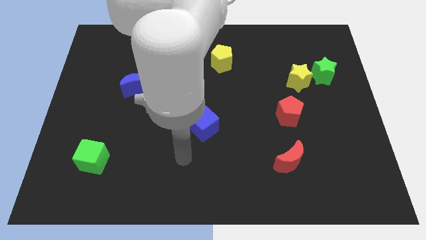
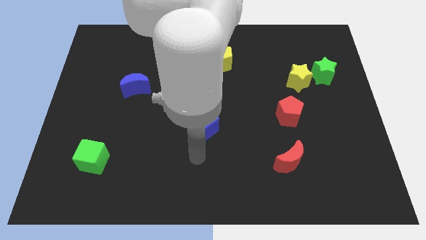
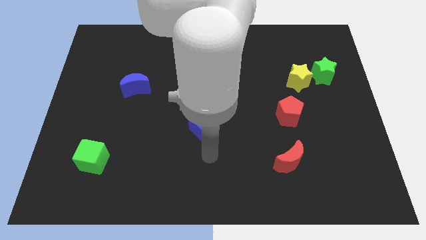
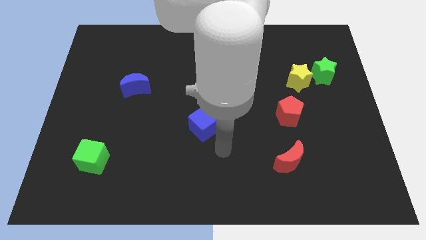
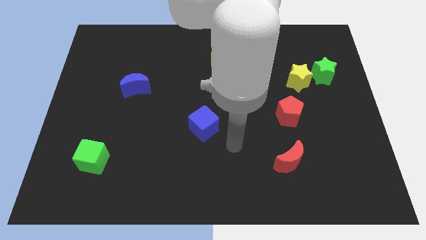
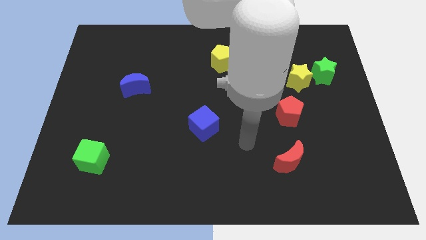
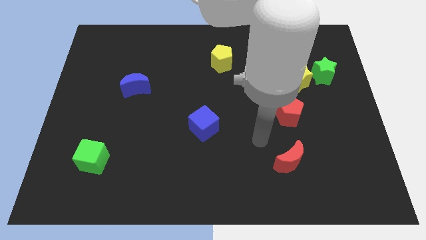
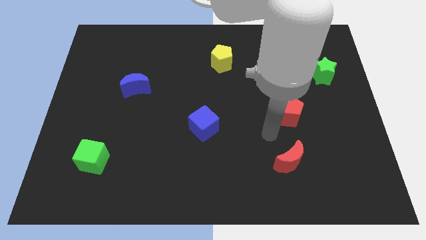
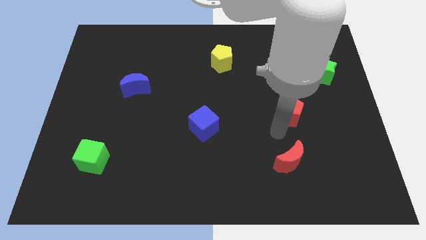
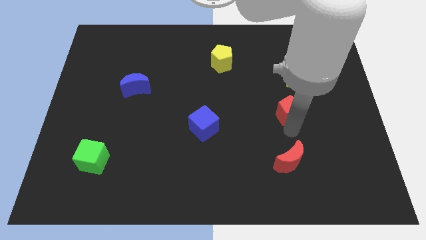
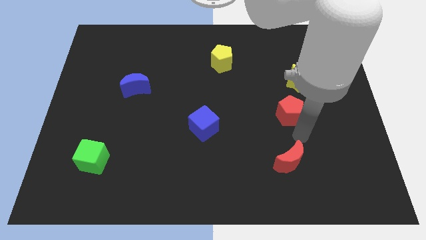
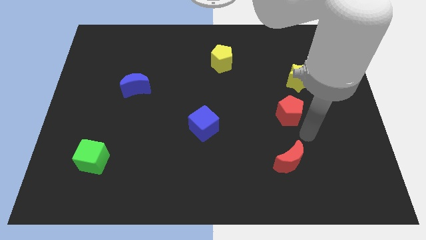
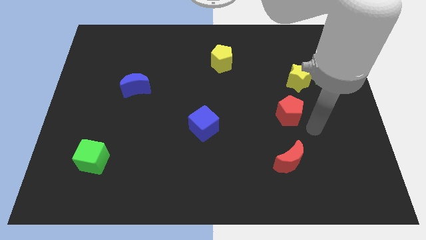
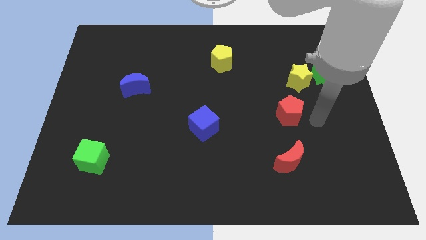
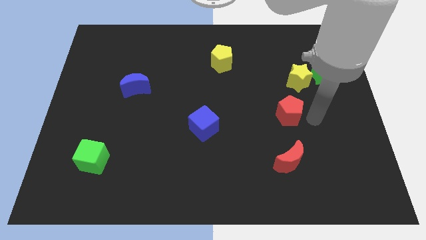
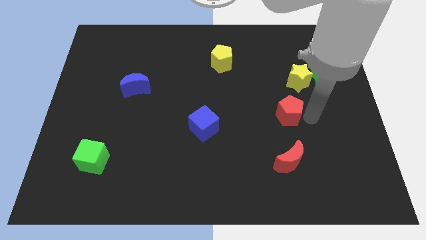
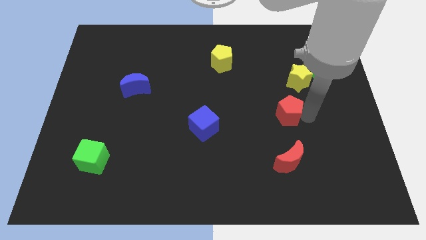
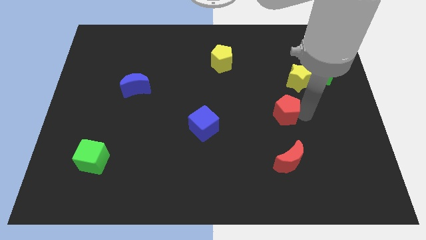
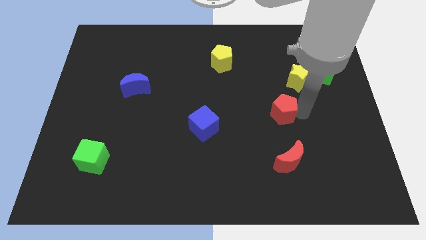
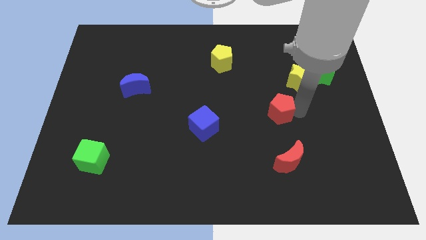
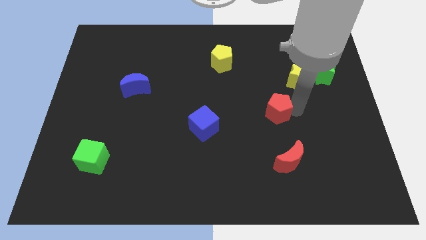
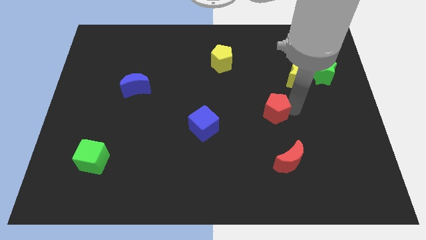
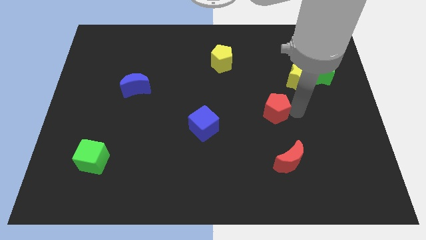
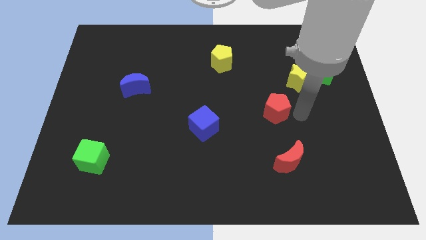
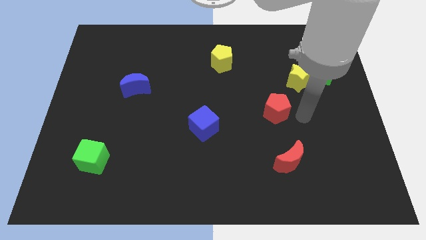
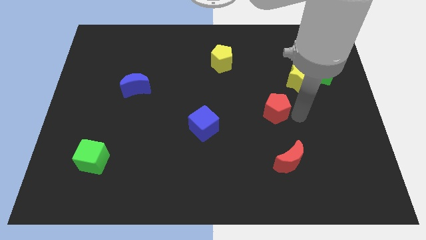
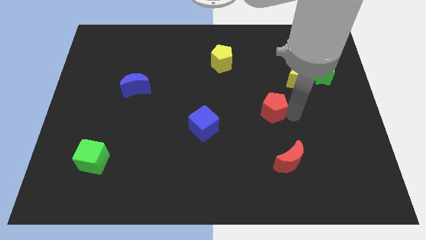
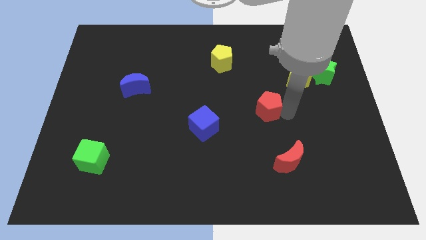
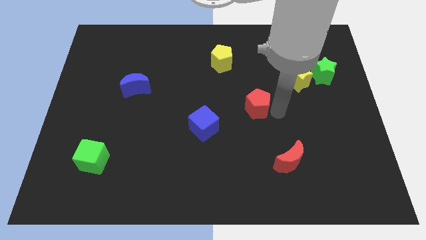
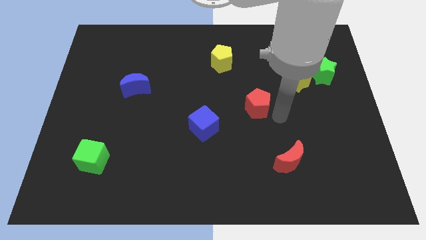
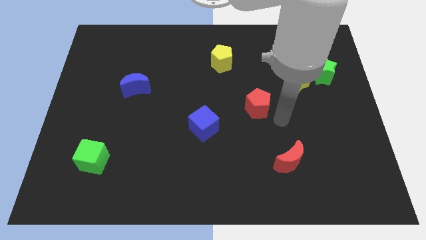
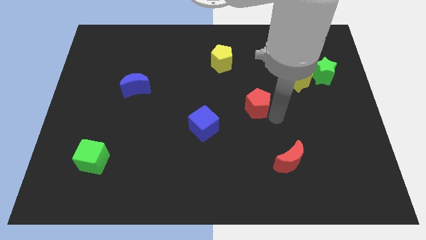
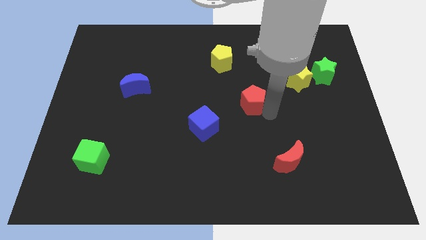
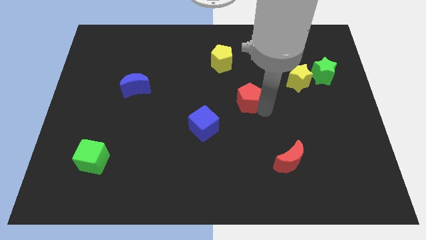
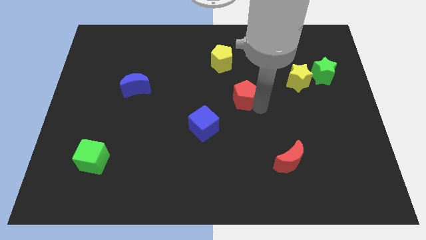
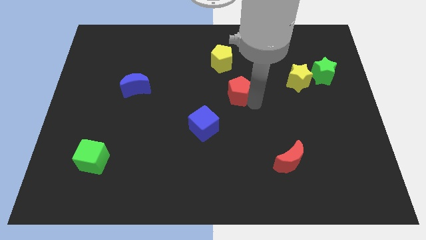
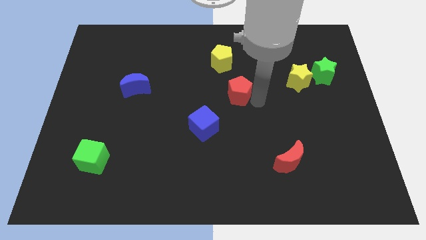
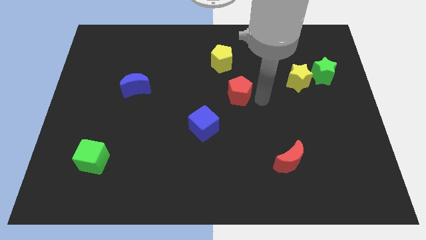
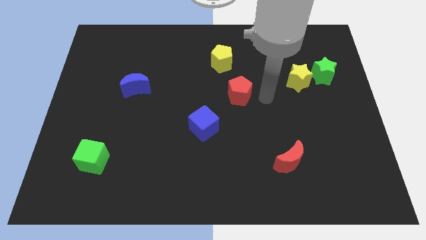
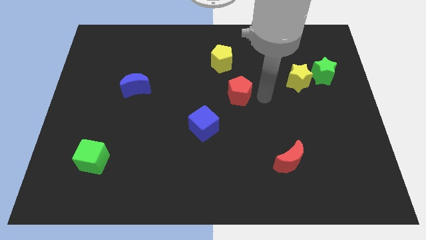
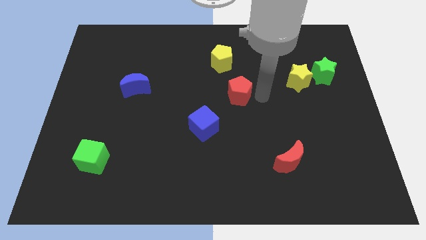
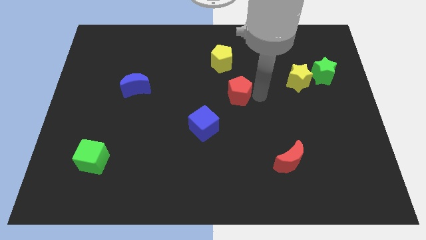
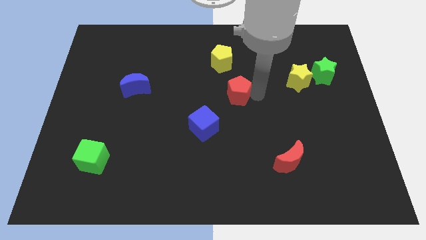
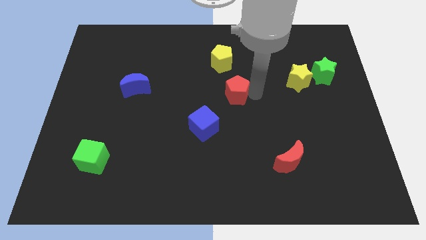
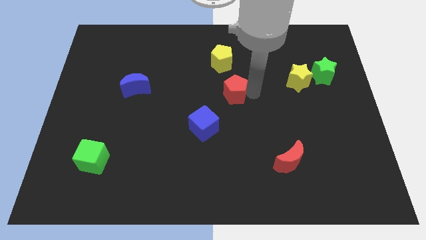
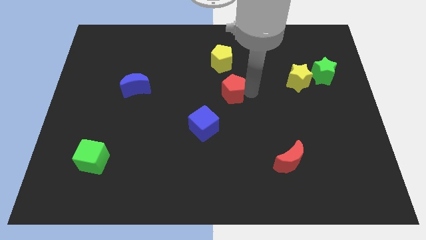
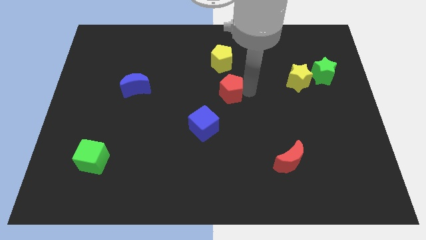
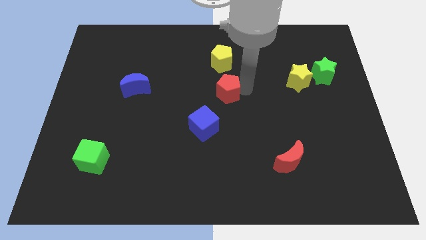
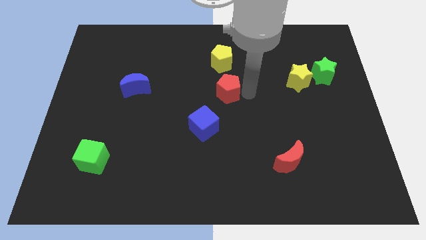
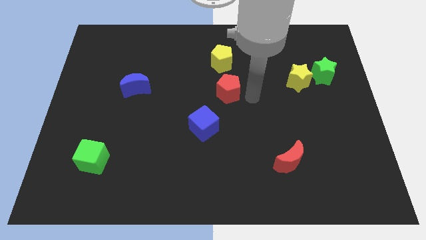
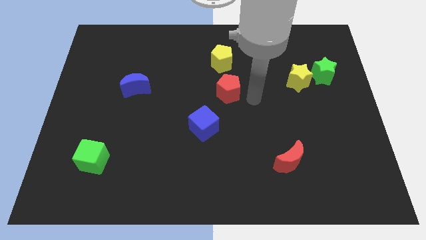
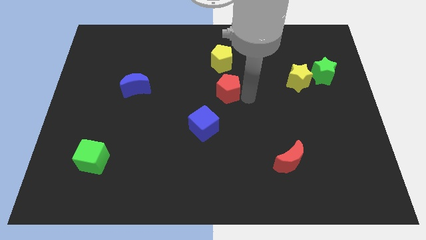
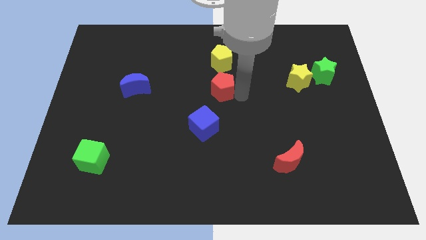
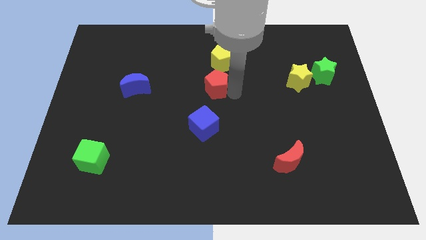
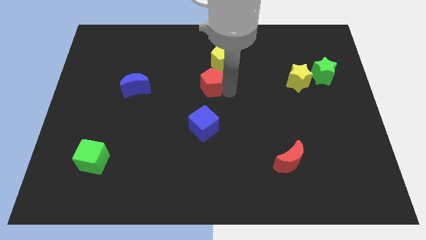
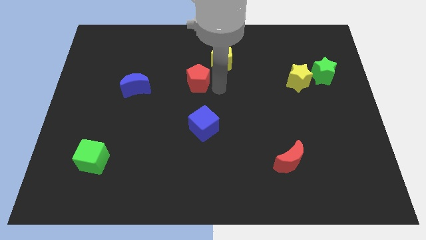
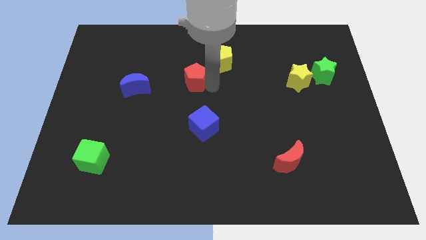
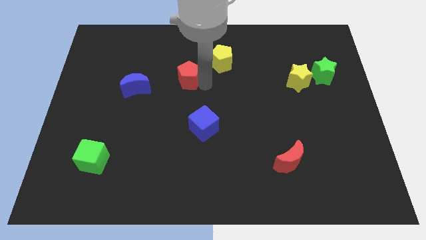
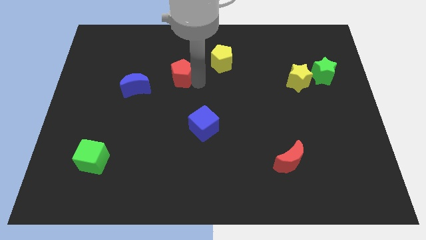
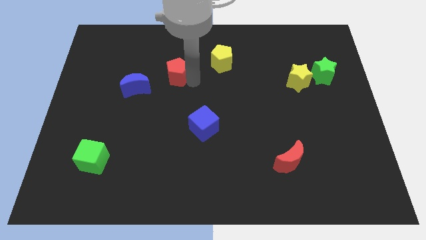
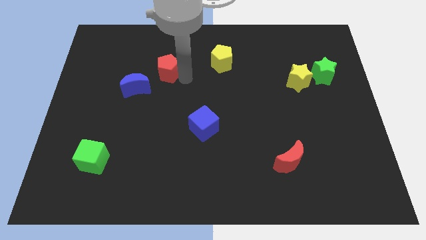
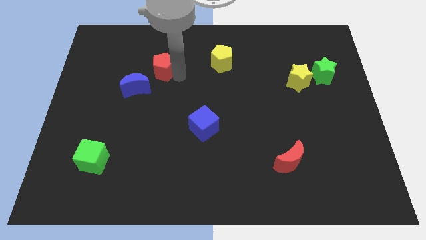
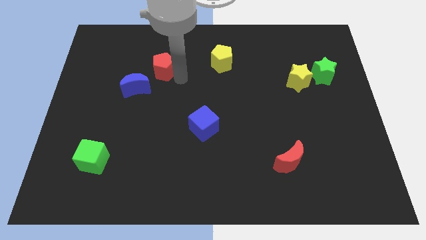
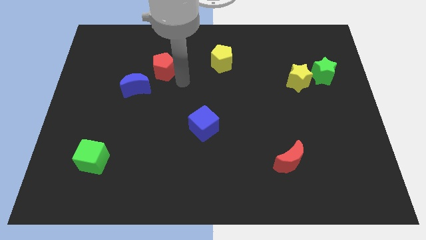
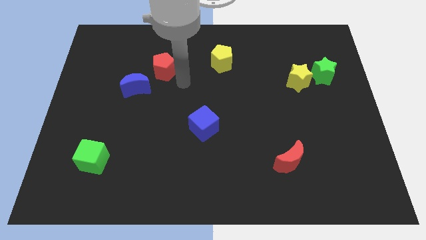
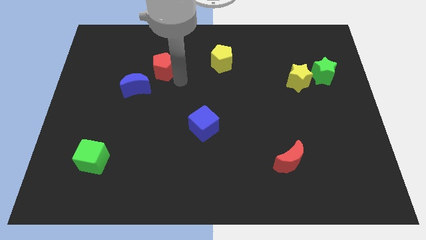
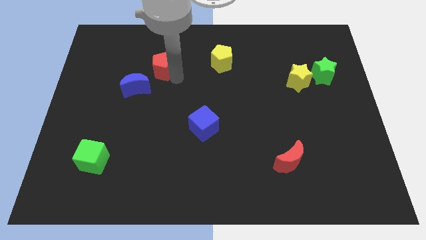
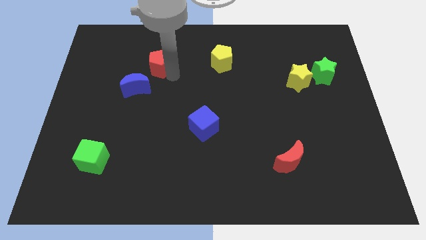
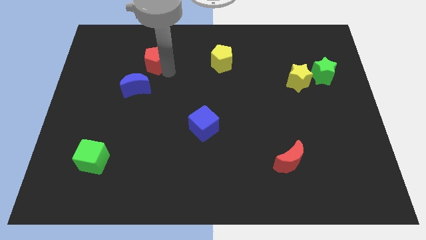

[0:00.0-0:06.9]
slide the red pentagon above the blue moon
